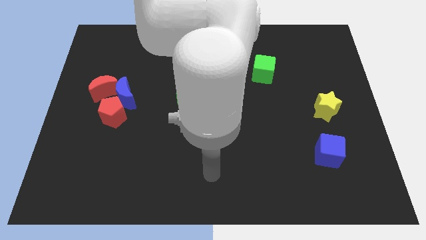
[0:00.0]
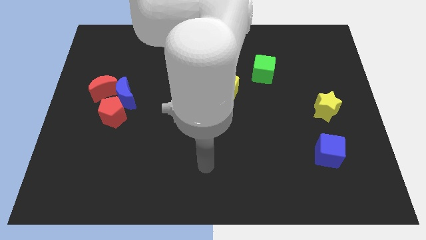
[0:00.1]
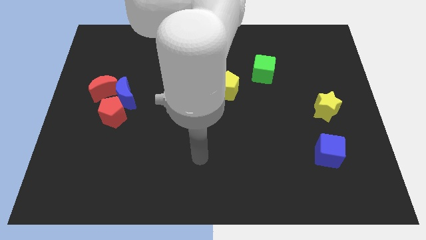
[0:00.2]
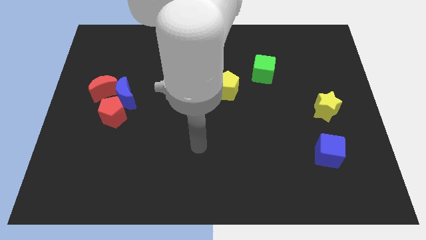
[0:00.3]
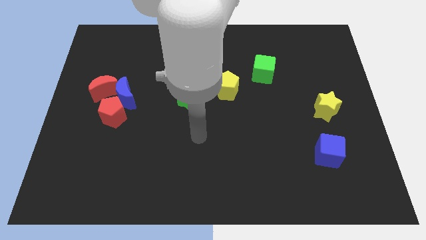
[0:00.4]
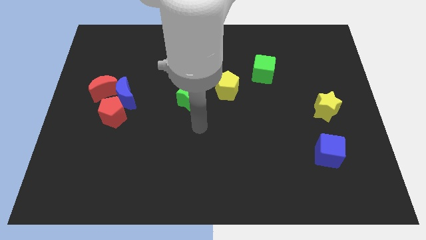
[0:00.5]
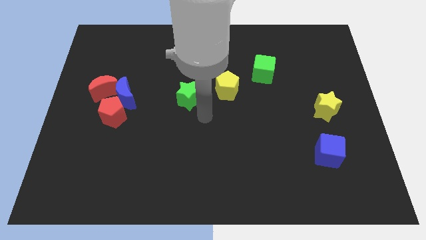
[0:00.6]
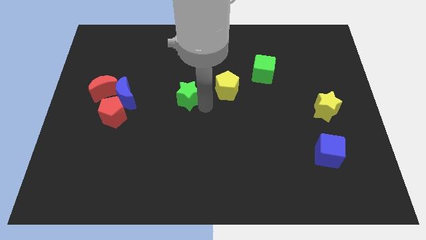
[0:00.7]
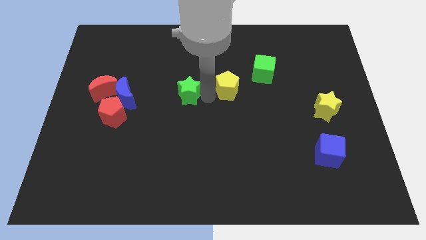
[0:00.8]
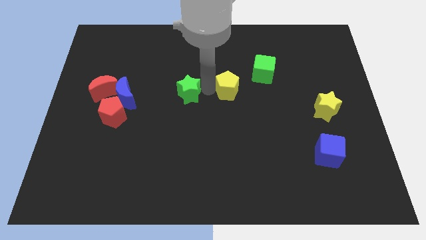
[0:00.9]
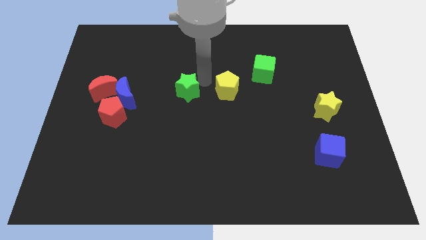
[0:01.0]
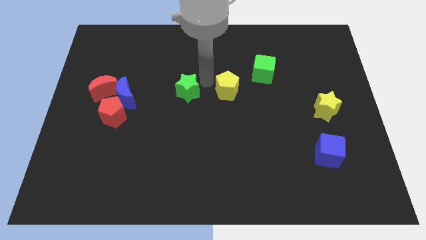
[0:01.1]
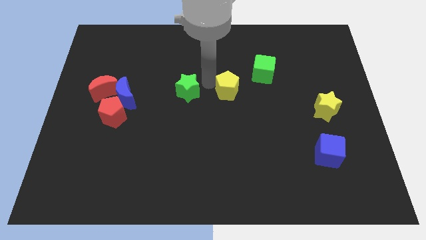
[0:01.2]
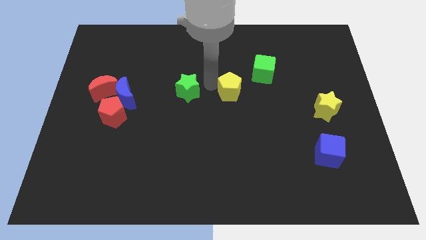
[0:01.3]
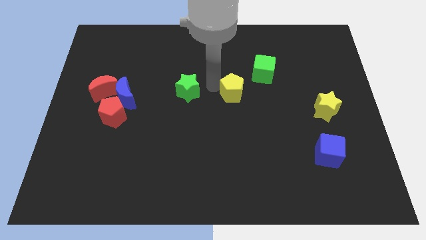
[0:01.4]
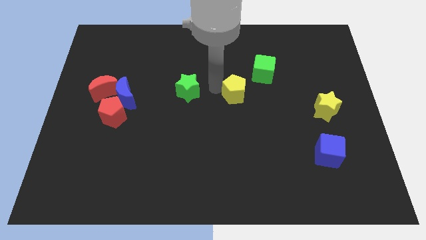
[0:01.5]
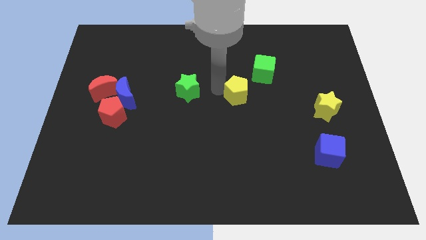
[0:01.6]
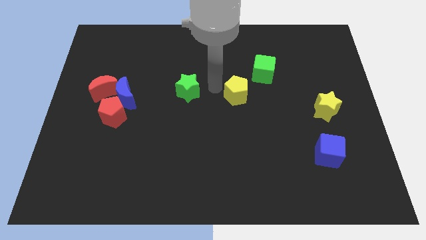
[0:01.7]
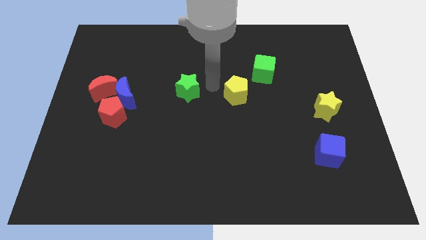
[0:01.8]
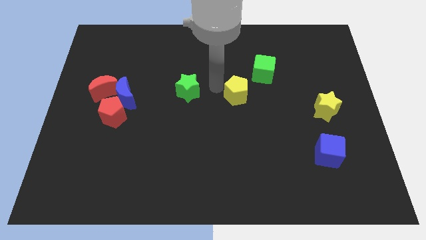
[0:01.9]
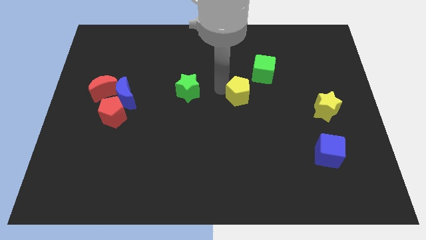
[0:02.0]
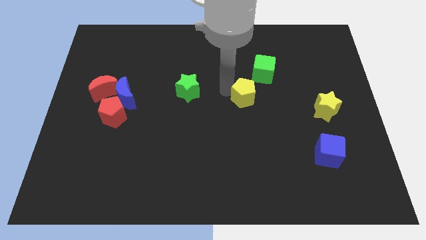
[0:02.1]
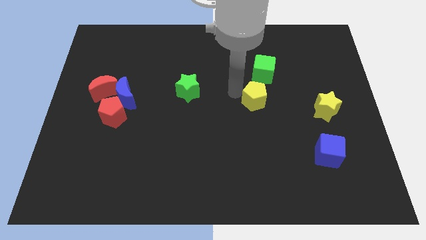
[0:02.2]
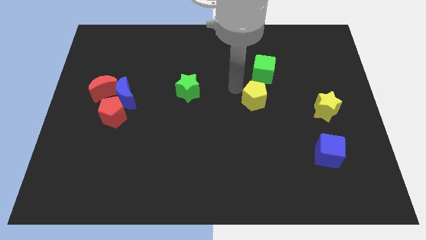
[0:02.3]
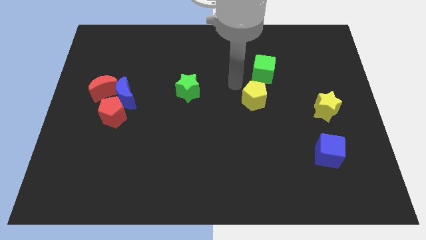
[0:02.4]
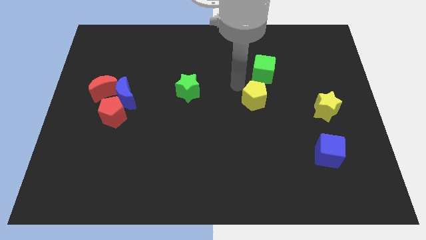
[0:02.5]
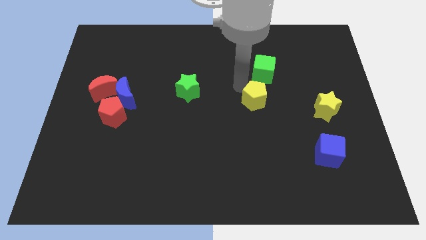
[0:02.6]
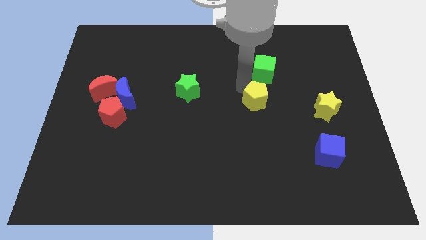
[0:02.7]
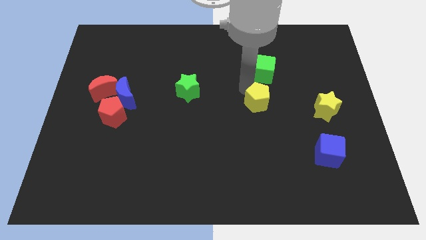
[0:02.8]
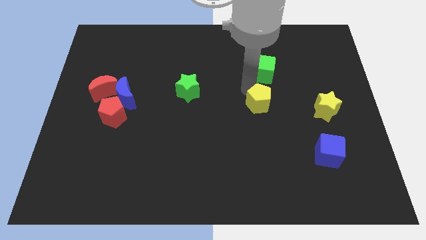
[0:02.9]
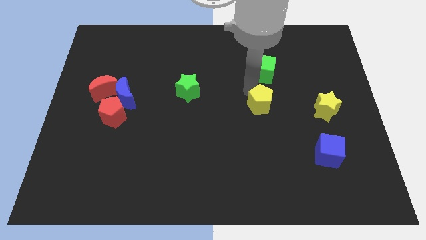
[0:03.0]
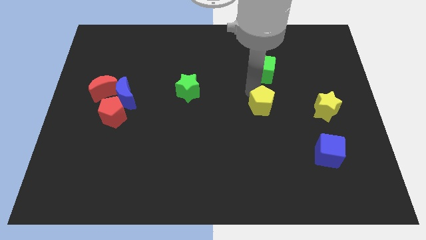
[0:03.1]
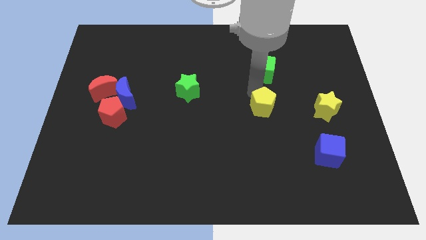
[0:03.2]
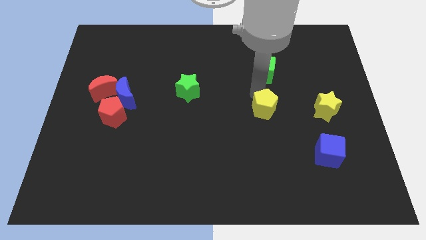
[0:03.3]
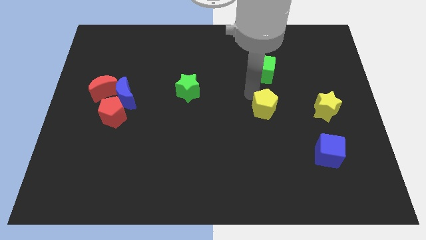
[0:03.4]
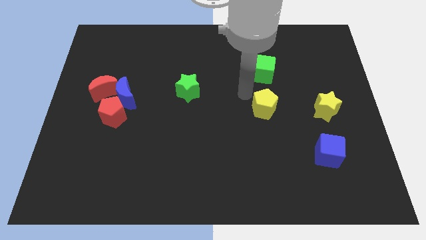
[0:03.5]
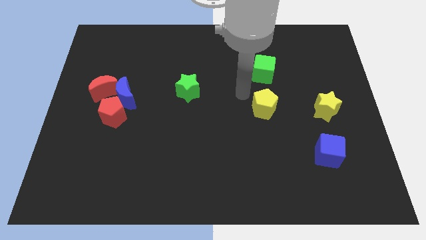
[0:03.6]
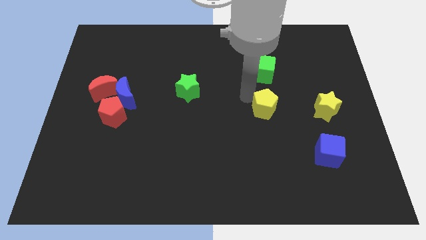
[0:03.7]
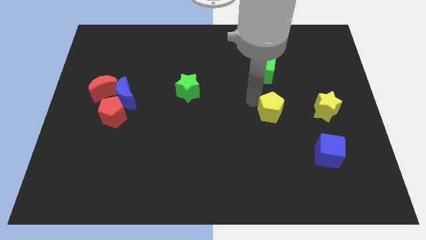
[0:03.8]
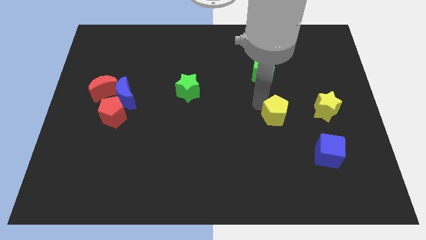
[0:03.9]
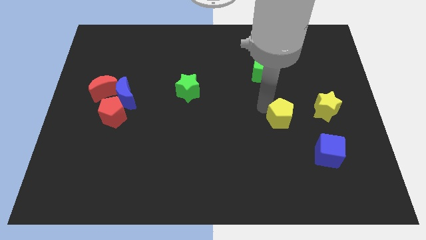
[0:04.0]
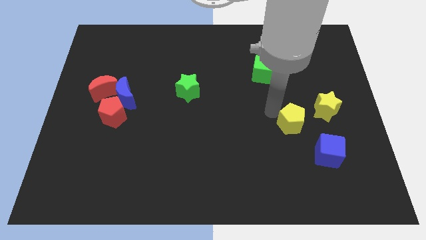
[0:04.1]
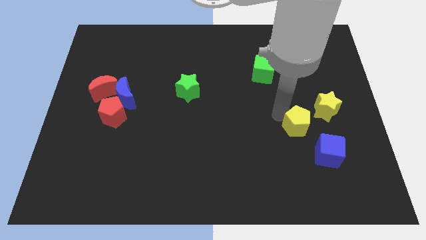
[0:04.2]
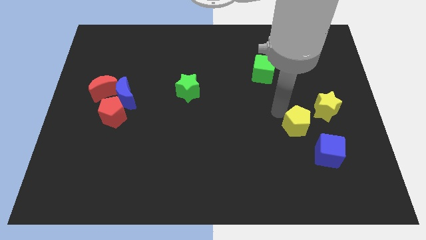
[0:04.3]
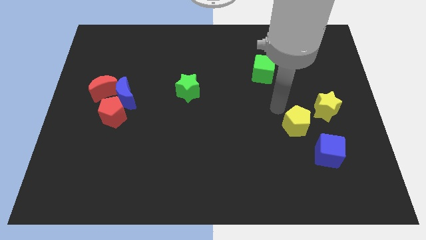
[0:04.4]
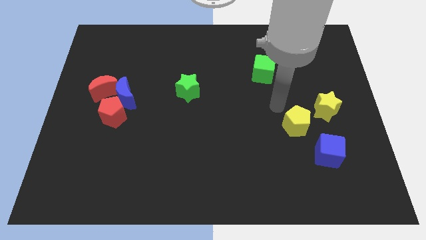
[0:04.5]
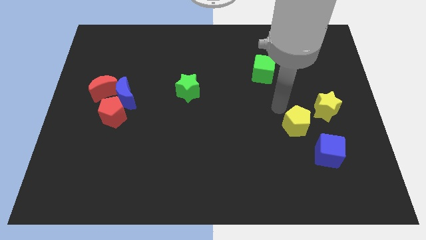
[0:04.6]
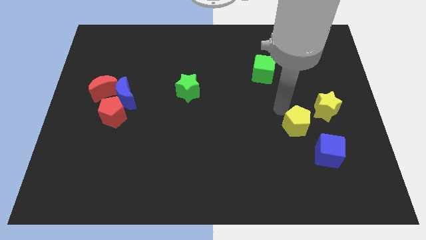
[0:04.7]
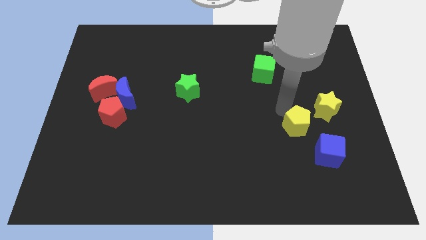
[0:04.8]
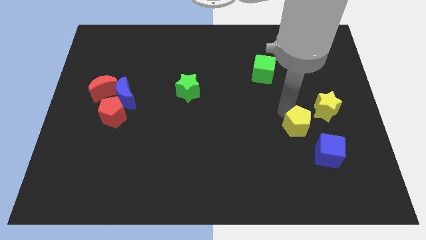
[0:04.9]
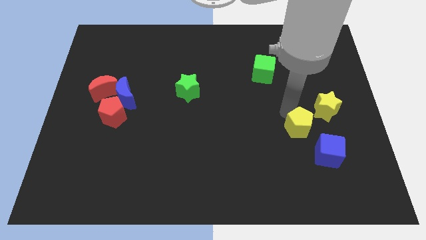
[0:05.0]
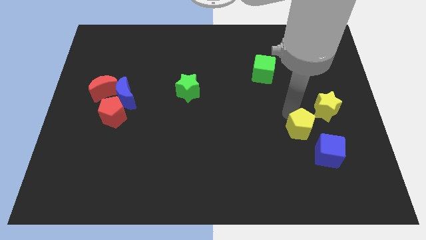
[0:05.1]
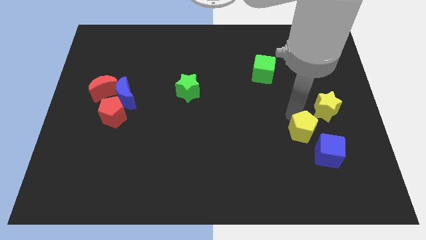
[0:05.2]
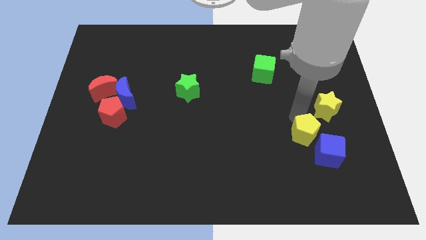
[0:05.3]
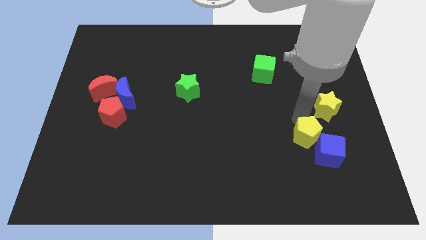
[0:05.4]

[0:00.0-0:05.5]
slide the yellow pentagon next to the blue cube
